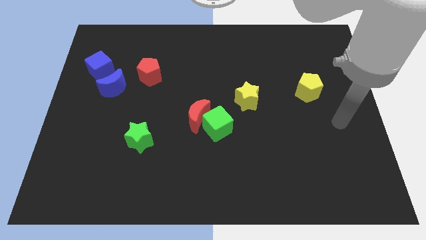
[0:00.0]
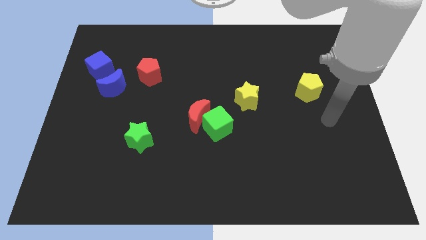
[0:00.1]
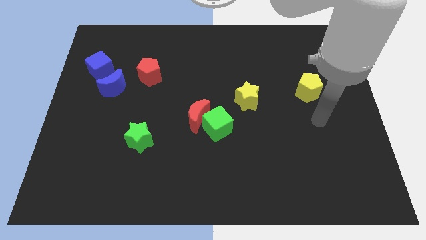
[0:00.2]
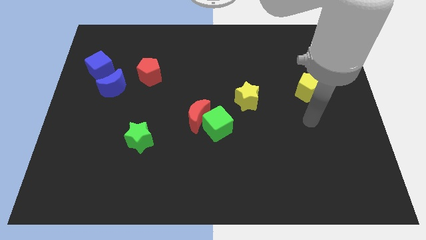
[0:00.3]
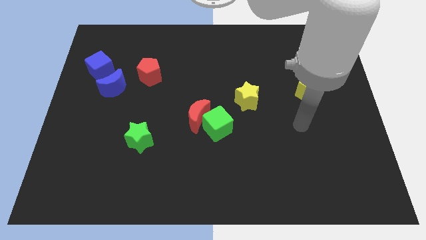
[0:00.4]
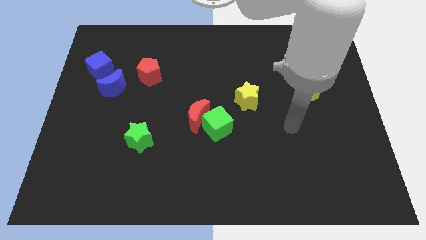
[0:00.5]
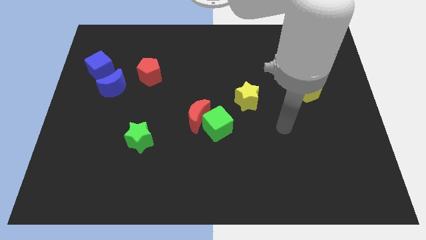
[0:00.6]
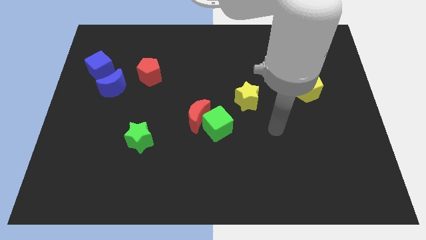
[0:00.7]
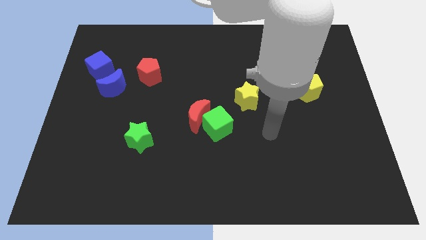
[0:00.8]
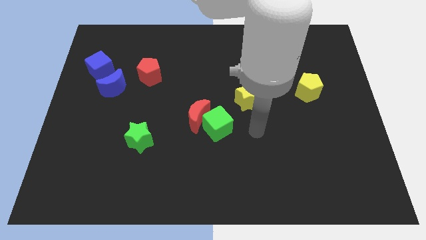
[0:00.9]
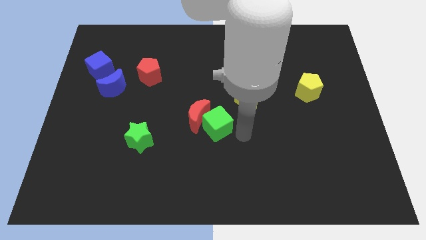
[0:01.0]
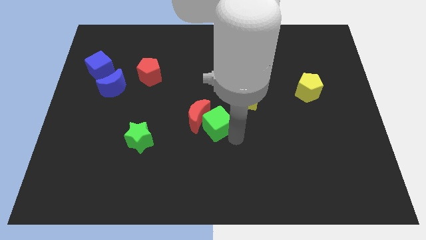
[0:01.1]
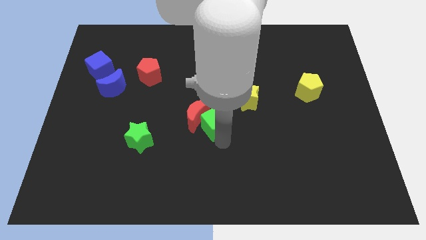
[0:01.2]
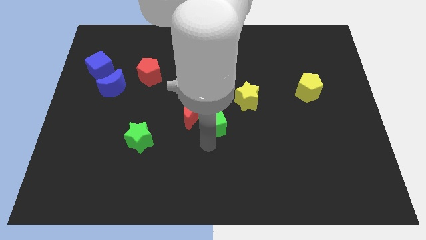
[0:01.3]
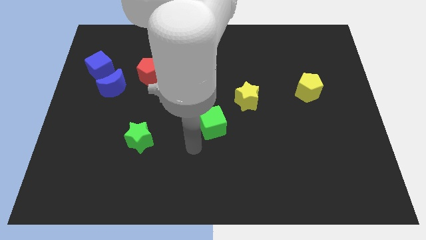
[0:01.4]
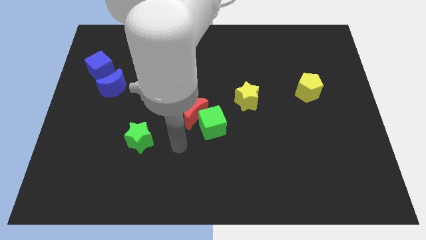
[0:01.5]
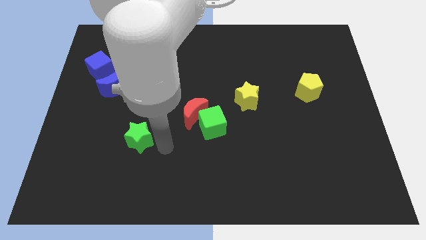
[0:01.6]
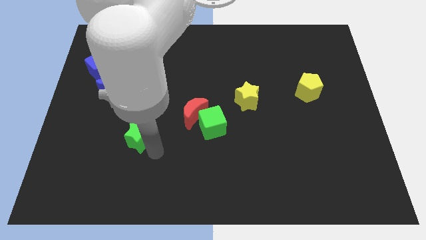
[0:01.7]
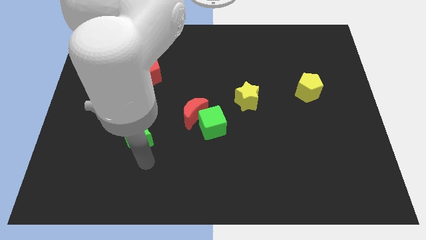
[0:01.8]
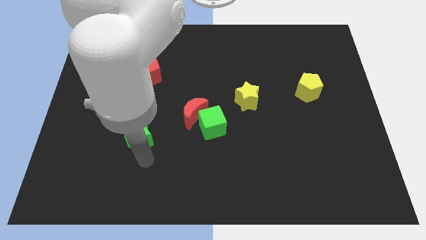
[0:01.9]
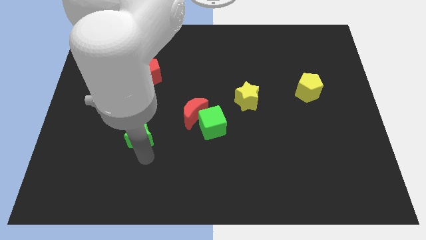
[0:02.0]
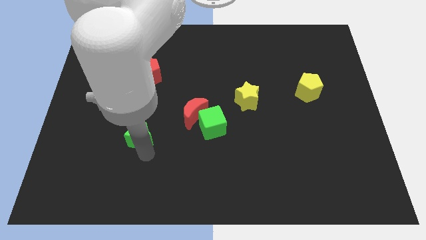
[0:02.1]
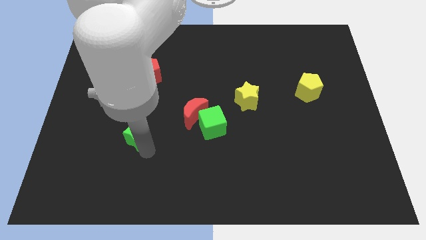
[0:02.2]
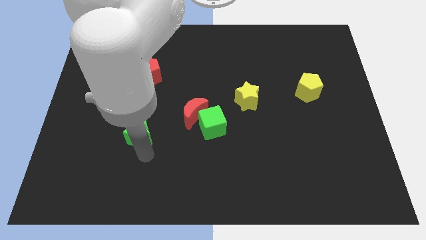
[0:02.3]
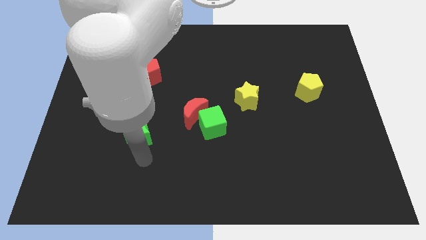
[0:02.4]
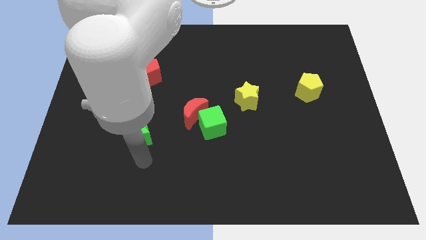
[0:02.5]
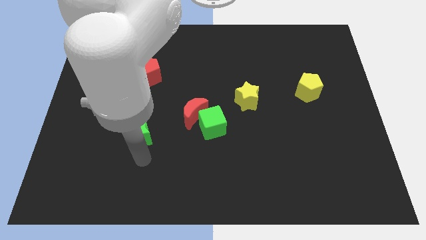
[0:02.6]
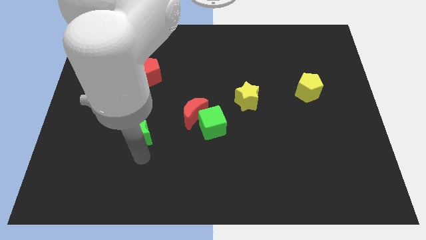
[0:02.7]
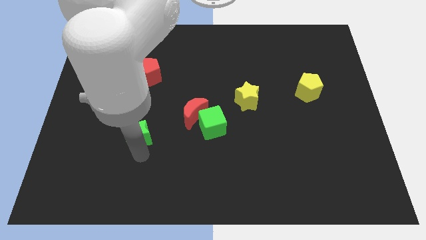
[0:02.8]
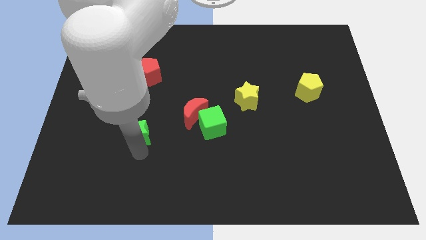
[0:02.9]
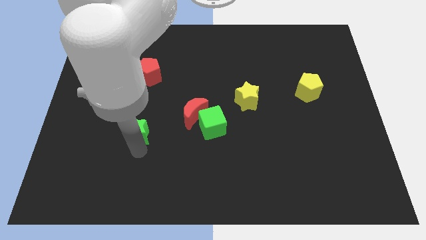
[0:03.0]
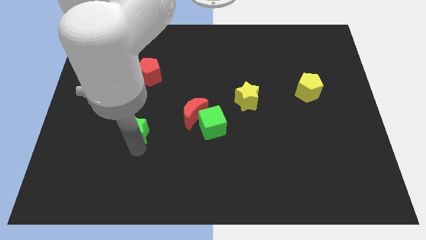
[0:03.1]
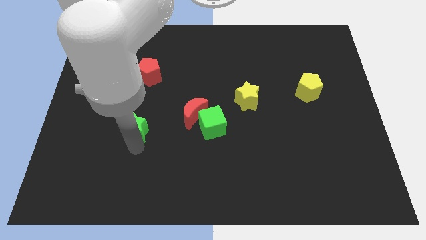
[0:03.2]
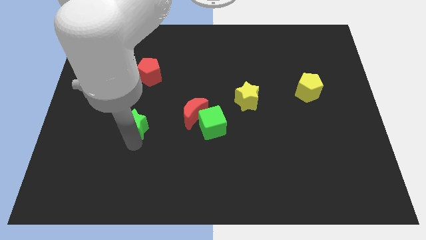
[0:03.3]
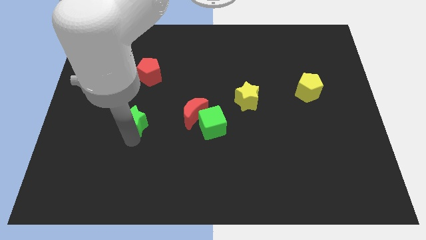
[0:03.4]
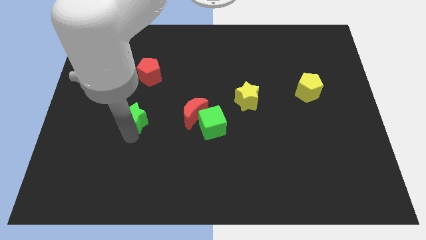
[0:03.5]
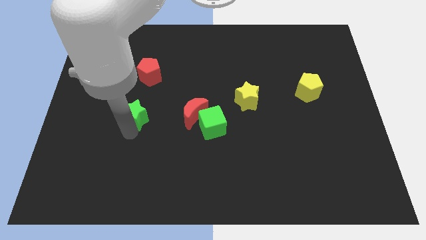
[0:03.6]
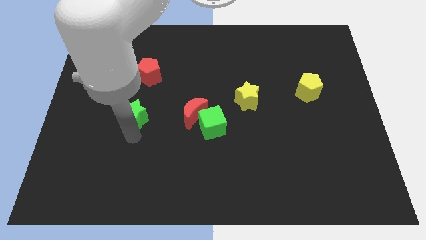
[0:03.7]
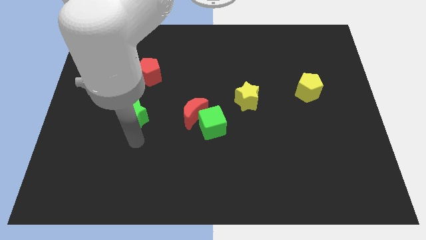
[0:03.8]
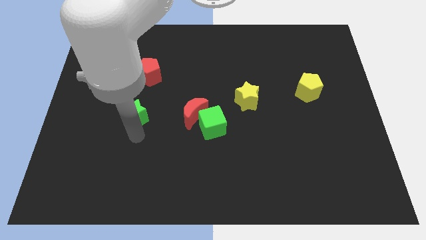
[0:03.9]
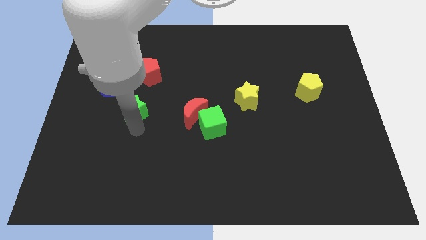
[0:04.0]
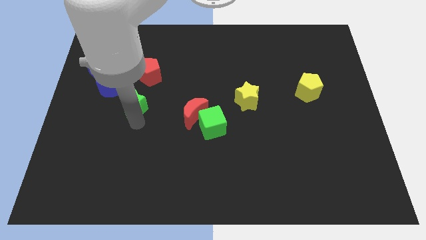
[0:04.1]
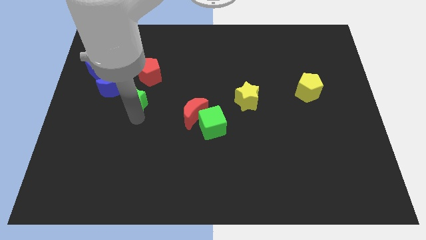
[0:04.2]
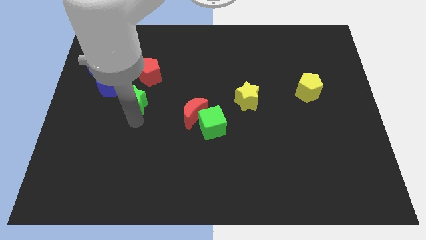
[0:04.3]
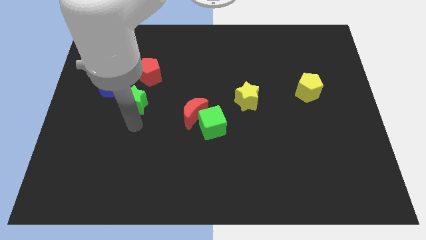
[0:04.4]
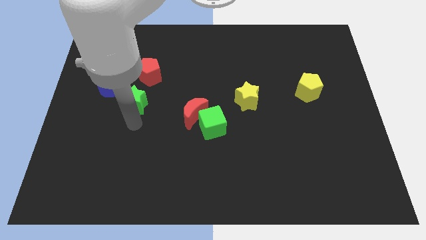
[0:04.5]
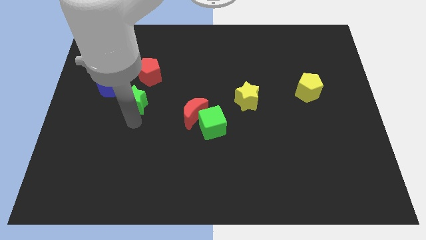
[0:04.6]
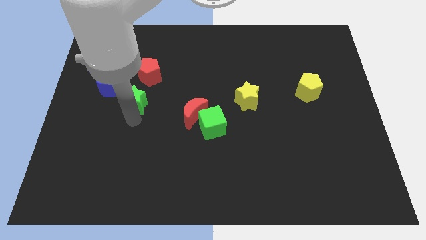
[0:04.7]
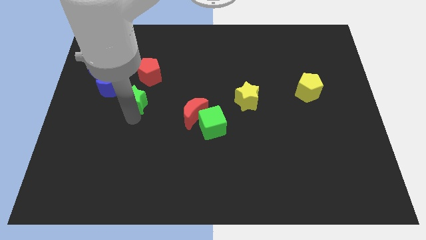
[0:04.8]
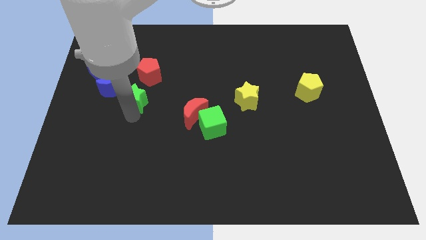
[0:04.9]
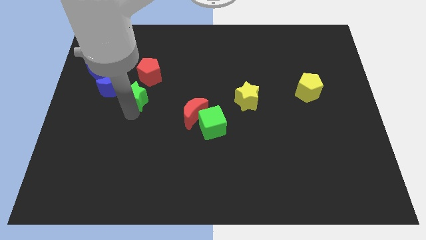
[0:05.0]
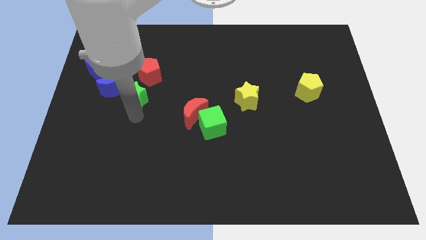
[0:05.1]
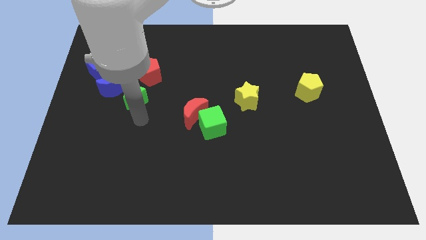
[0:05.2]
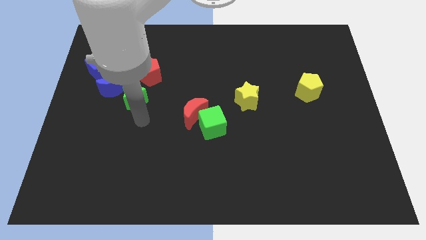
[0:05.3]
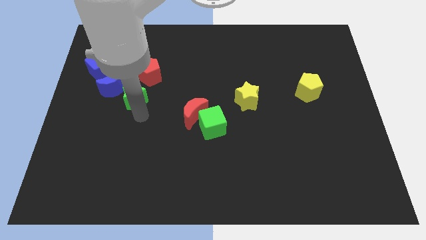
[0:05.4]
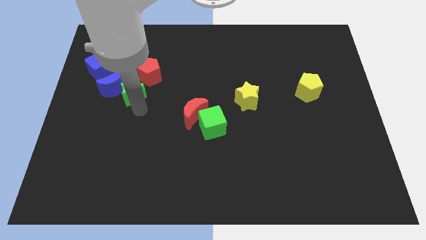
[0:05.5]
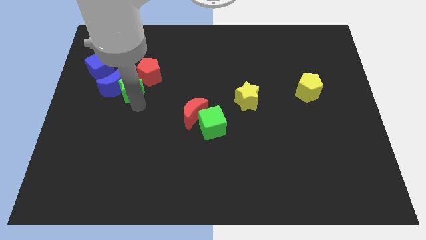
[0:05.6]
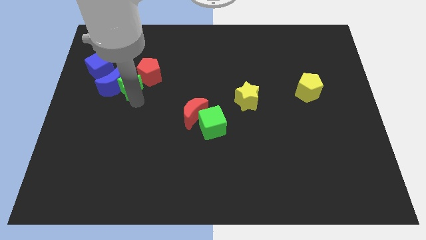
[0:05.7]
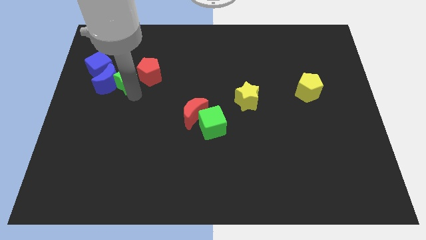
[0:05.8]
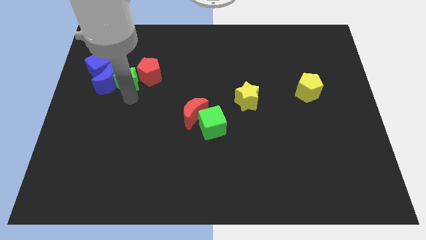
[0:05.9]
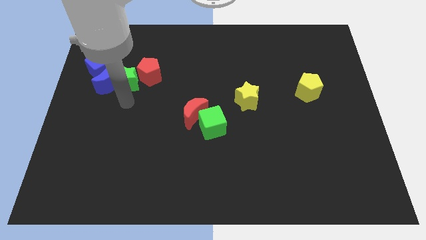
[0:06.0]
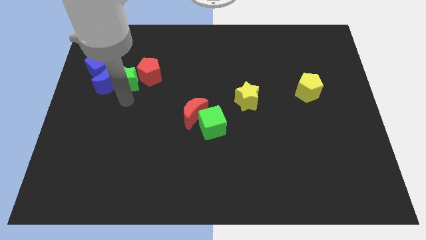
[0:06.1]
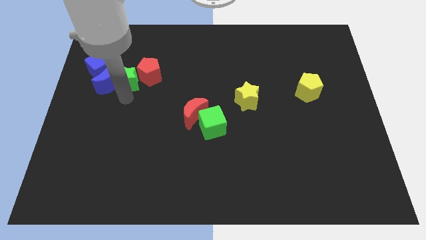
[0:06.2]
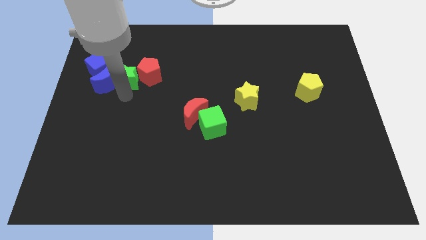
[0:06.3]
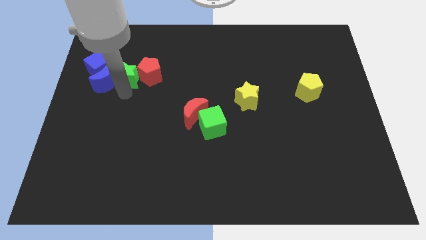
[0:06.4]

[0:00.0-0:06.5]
move the green star to the top left of the red pentagon

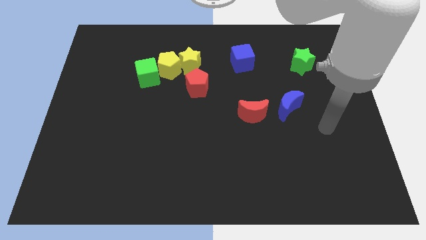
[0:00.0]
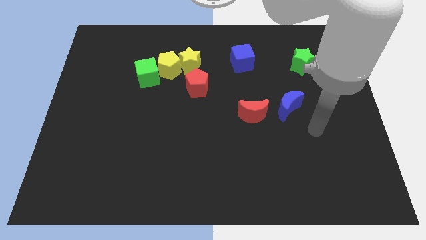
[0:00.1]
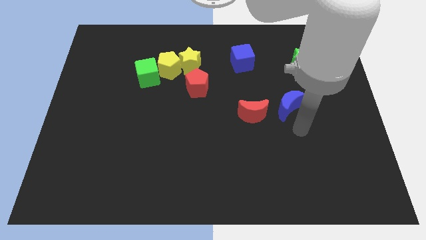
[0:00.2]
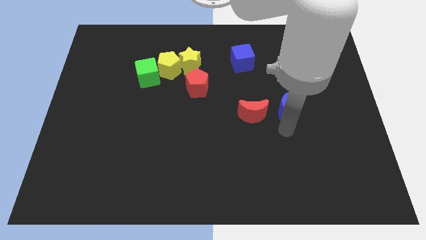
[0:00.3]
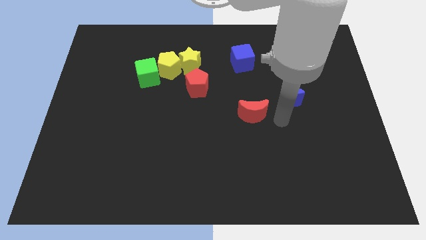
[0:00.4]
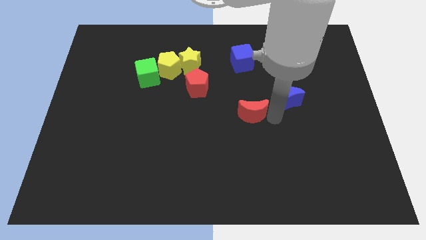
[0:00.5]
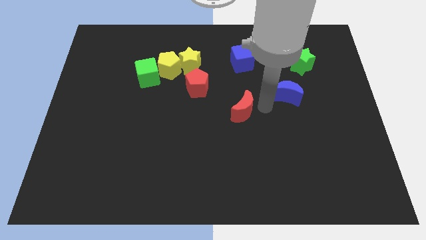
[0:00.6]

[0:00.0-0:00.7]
move the blue moon to the bottom side of the green star
